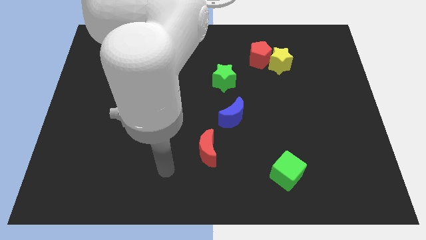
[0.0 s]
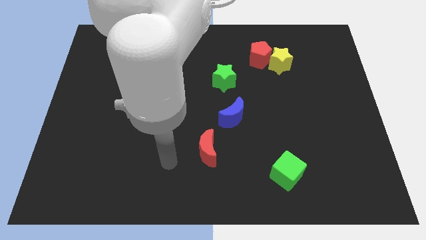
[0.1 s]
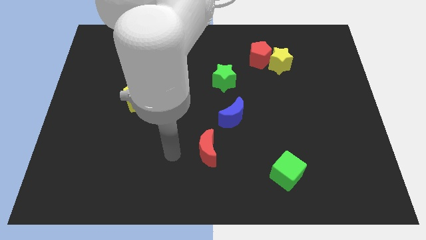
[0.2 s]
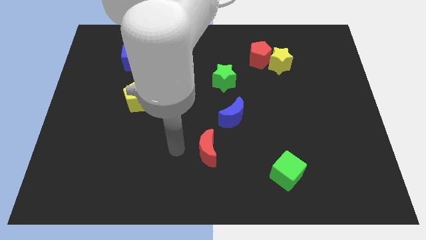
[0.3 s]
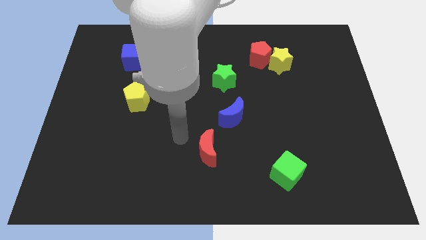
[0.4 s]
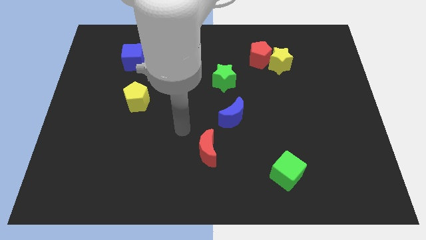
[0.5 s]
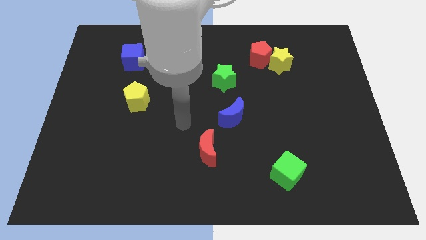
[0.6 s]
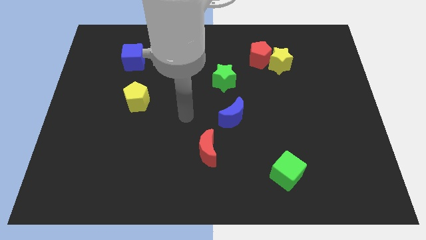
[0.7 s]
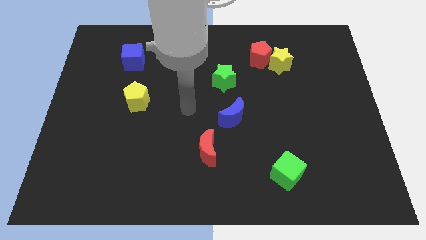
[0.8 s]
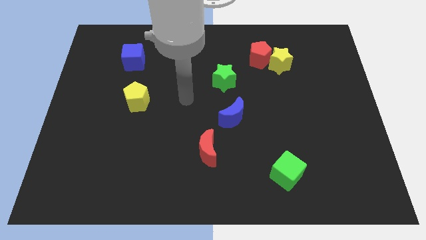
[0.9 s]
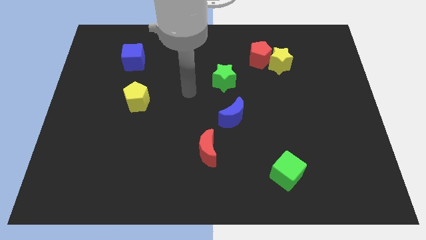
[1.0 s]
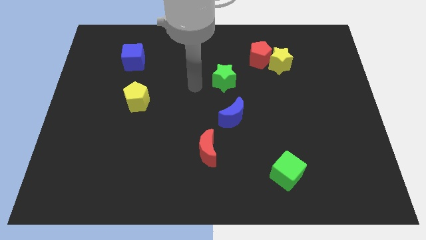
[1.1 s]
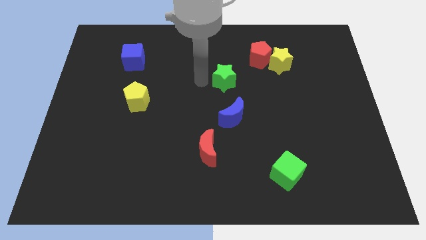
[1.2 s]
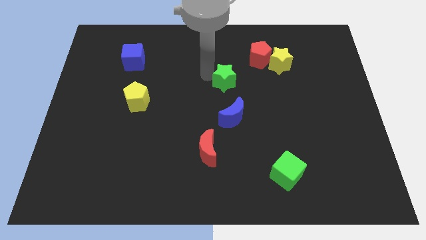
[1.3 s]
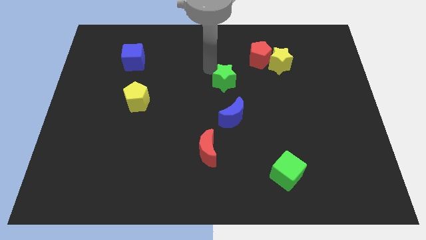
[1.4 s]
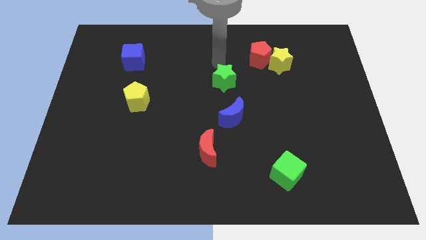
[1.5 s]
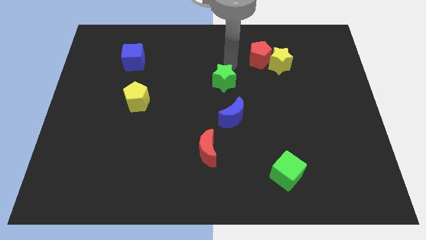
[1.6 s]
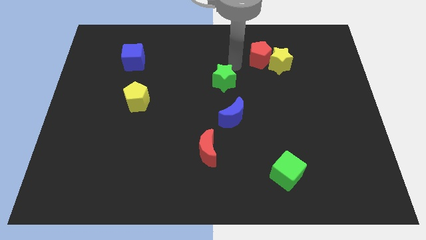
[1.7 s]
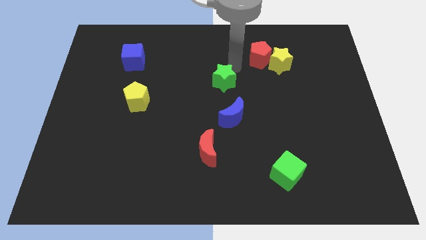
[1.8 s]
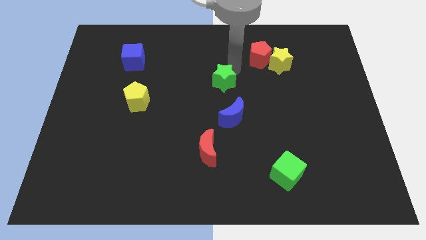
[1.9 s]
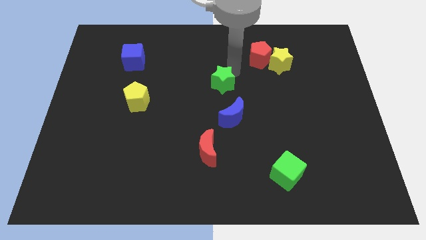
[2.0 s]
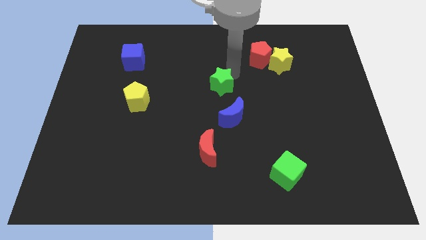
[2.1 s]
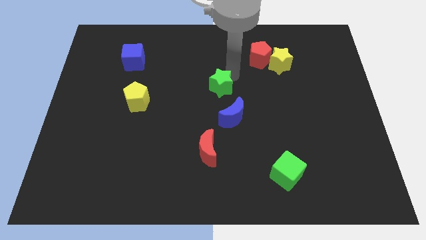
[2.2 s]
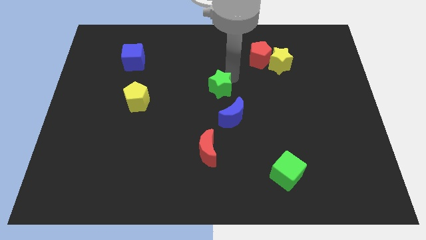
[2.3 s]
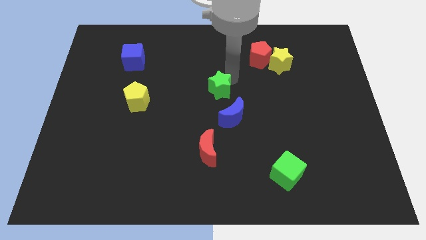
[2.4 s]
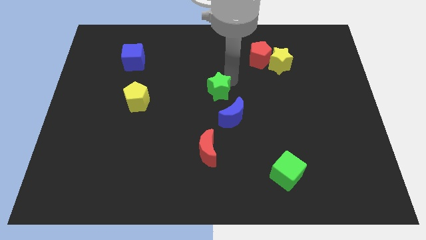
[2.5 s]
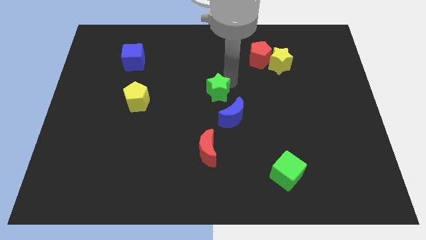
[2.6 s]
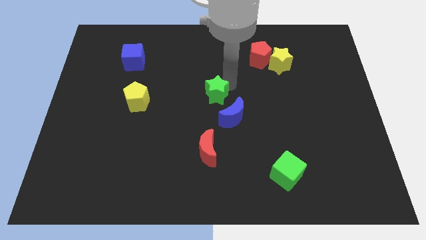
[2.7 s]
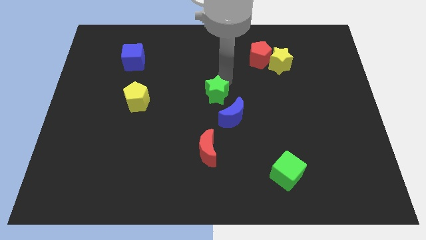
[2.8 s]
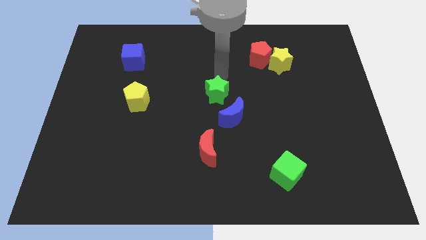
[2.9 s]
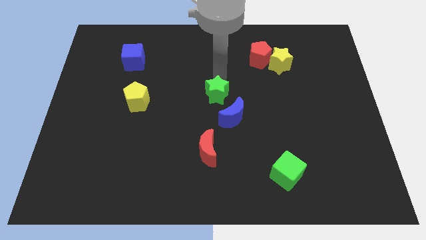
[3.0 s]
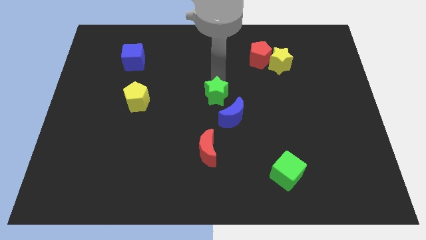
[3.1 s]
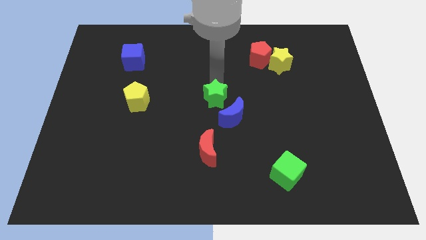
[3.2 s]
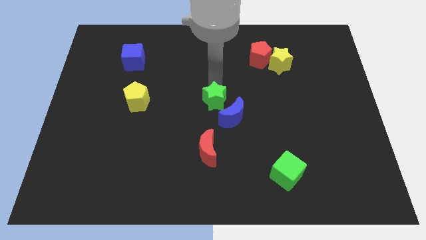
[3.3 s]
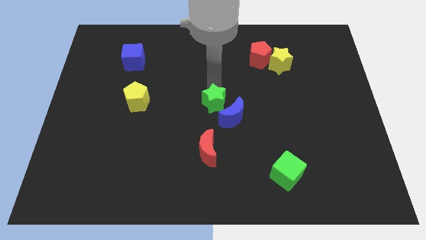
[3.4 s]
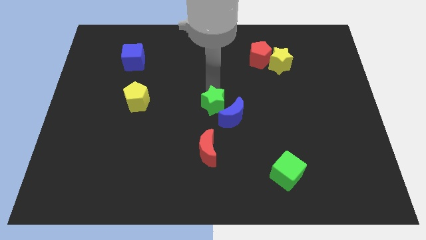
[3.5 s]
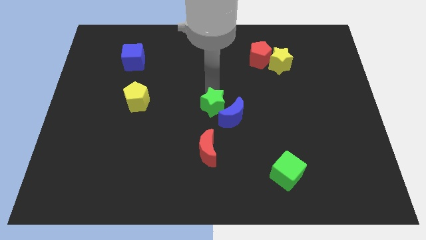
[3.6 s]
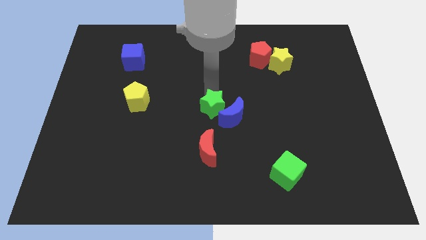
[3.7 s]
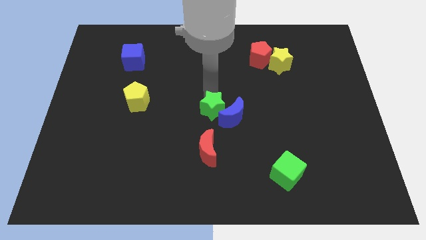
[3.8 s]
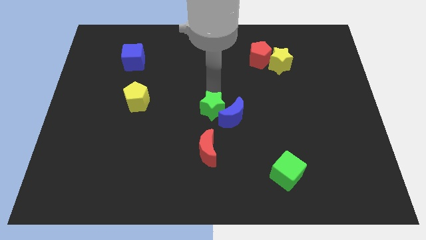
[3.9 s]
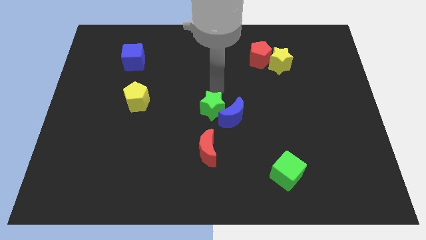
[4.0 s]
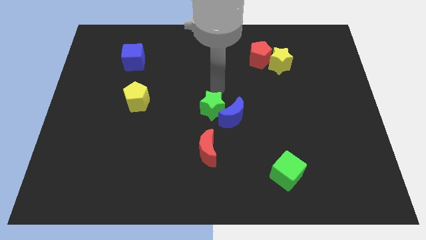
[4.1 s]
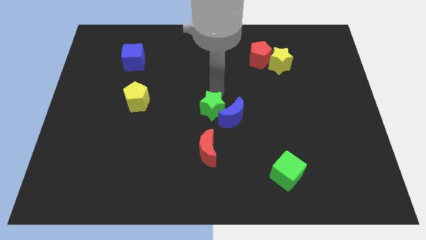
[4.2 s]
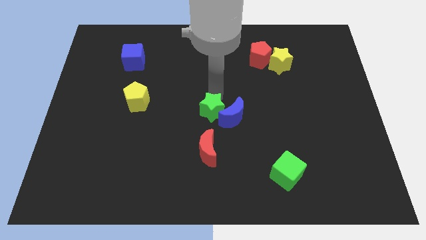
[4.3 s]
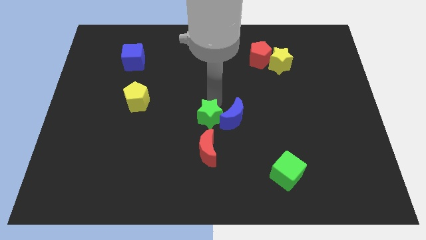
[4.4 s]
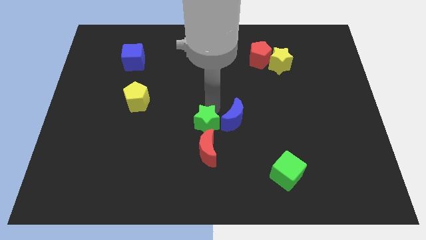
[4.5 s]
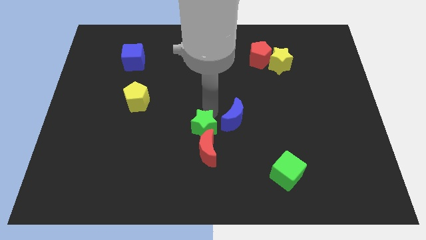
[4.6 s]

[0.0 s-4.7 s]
slide the green star next to the red moon

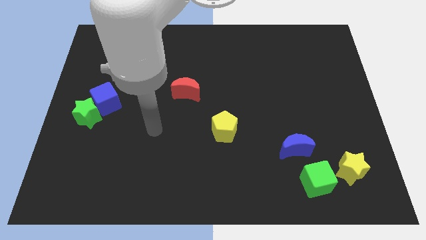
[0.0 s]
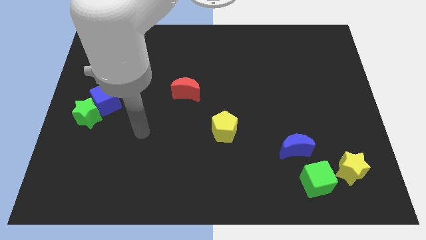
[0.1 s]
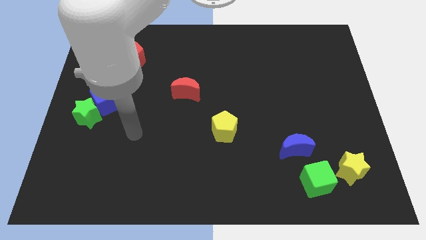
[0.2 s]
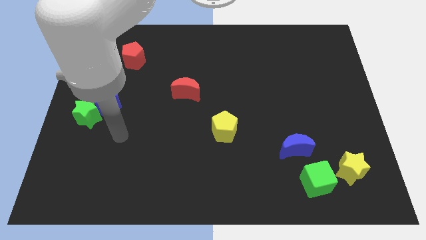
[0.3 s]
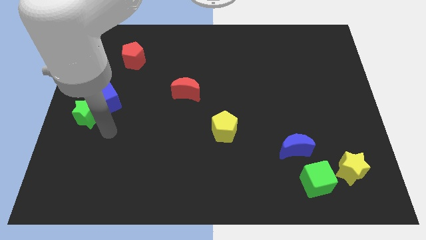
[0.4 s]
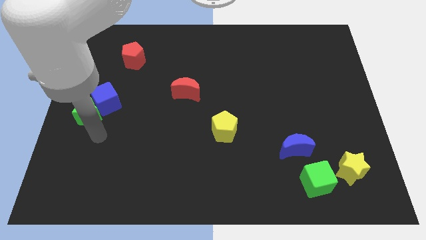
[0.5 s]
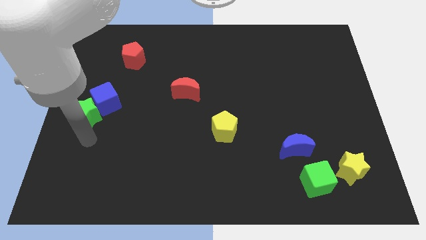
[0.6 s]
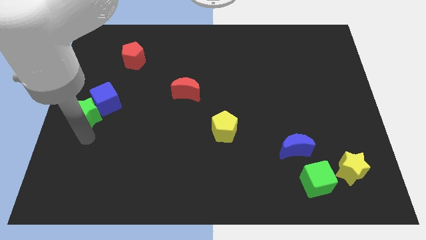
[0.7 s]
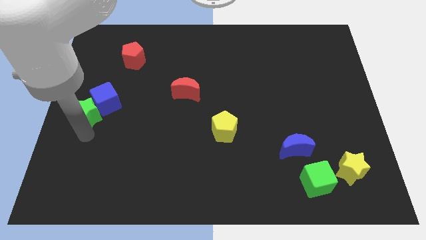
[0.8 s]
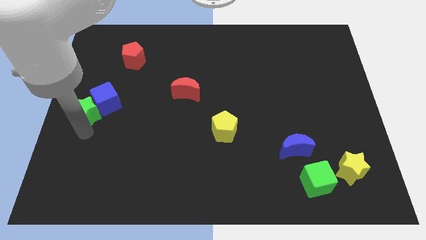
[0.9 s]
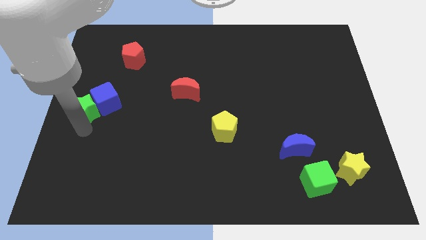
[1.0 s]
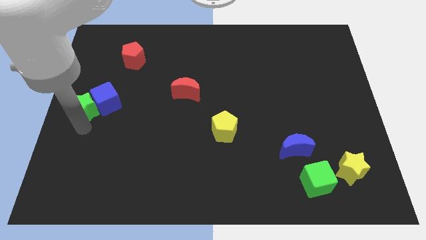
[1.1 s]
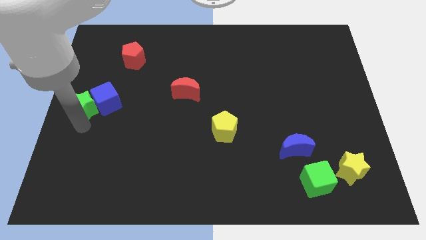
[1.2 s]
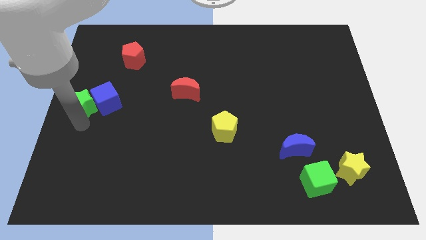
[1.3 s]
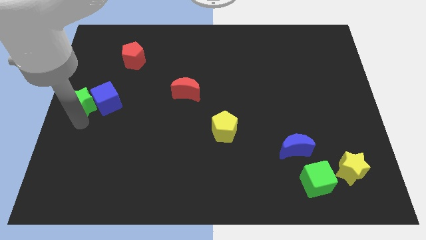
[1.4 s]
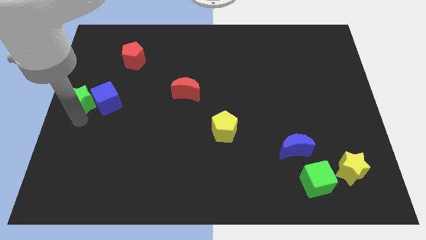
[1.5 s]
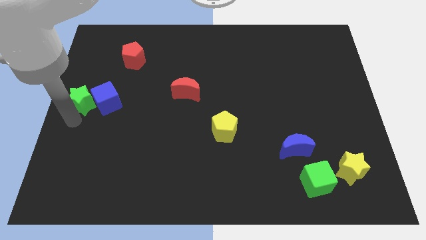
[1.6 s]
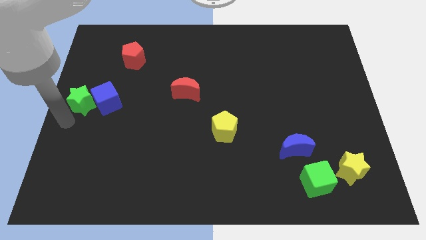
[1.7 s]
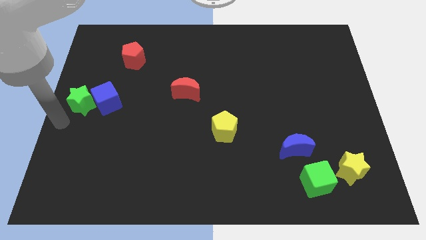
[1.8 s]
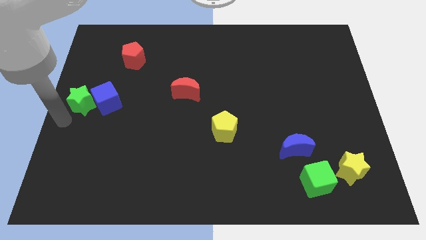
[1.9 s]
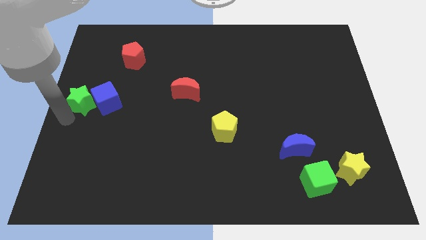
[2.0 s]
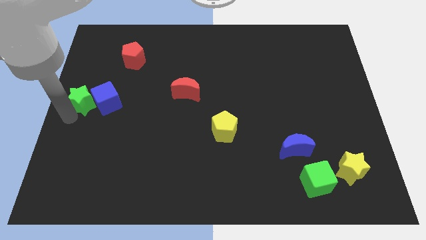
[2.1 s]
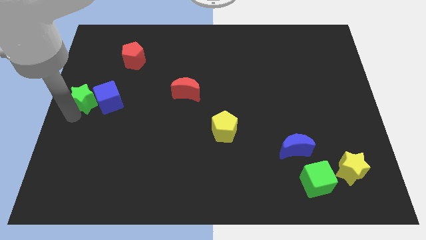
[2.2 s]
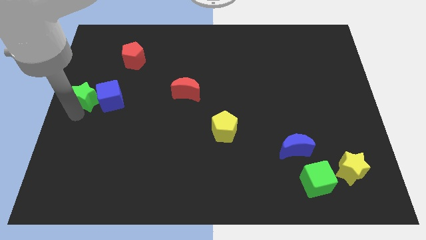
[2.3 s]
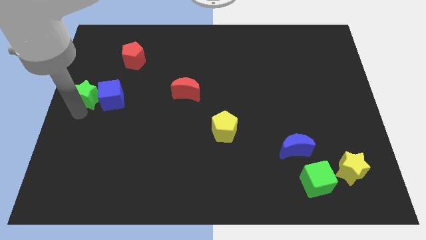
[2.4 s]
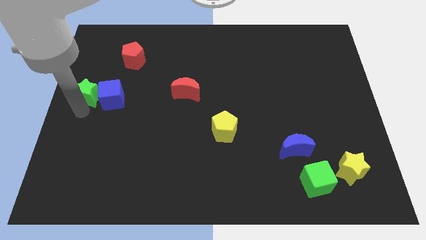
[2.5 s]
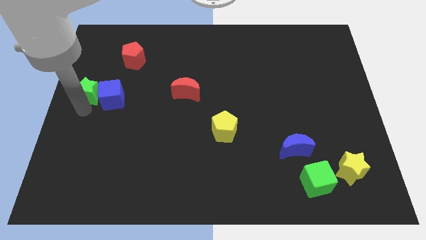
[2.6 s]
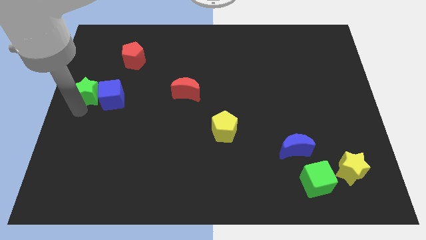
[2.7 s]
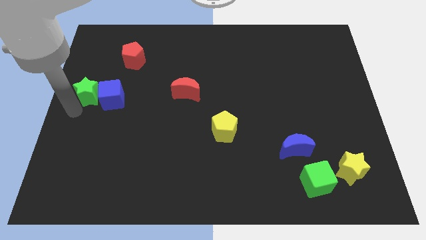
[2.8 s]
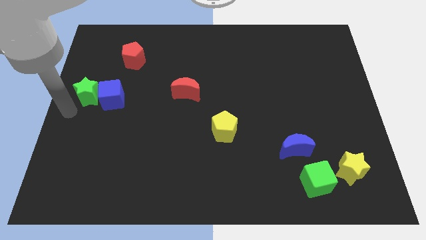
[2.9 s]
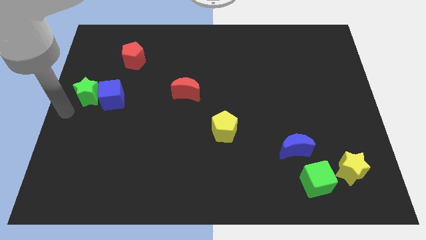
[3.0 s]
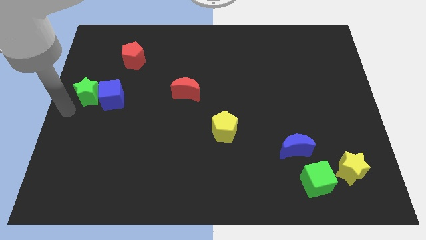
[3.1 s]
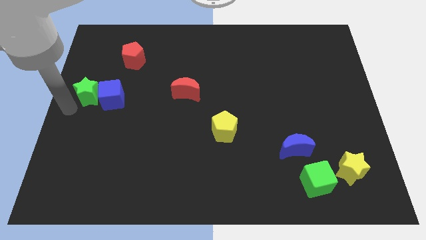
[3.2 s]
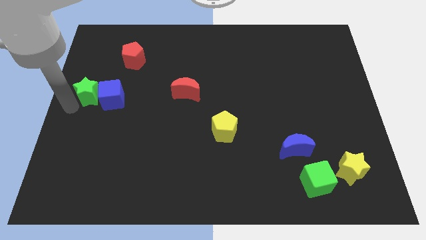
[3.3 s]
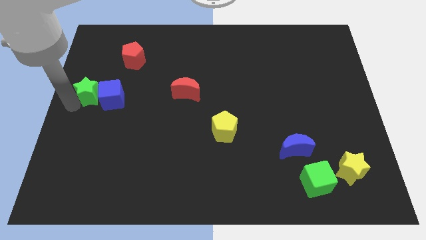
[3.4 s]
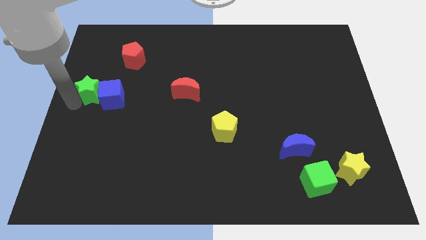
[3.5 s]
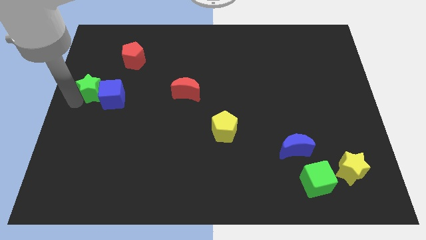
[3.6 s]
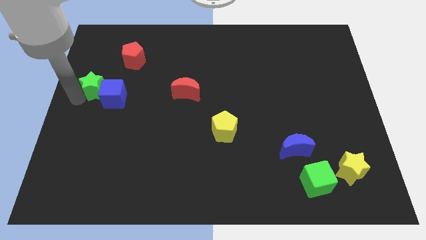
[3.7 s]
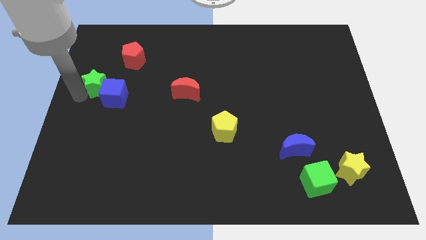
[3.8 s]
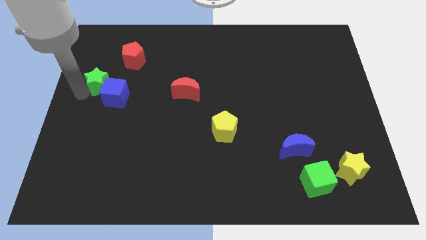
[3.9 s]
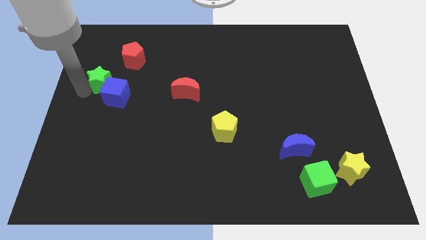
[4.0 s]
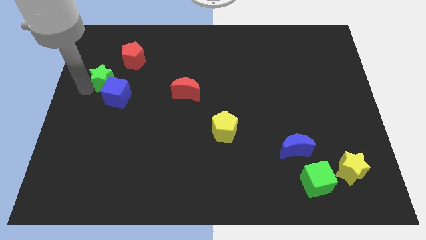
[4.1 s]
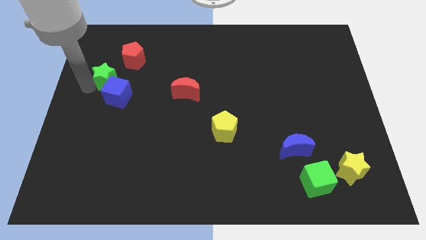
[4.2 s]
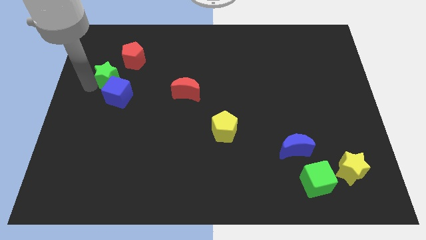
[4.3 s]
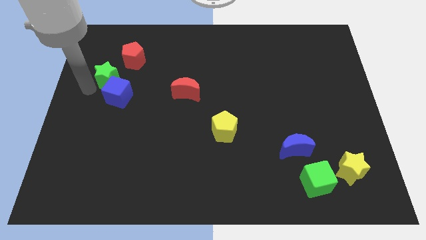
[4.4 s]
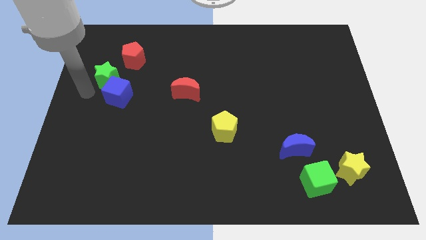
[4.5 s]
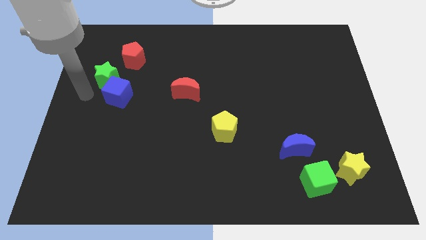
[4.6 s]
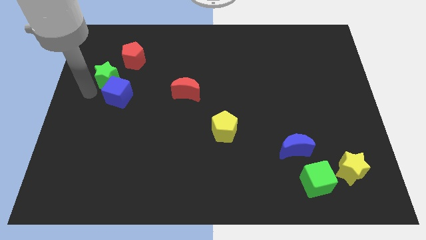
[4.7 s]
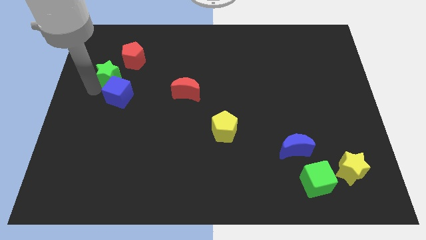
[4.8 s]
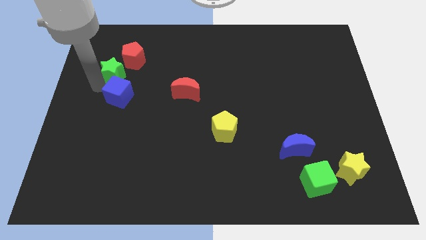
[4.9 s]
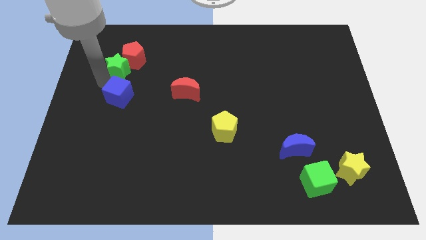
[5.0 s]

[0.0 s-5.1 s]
slide the green star to the red pentagon
